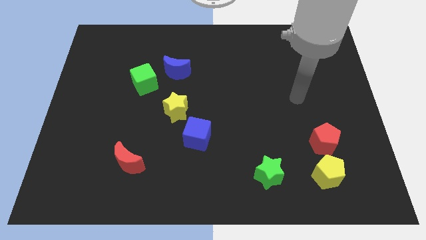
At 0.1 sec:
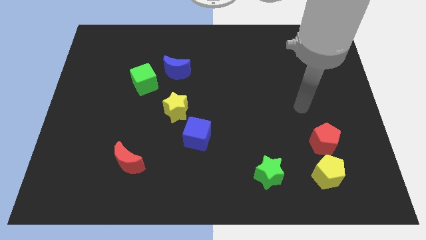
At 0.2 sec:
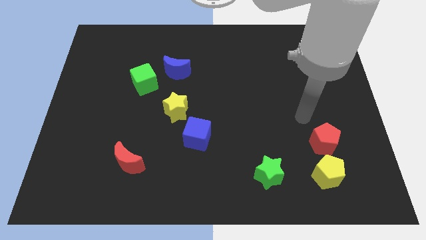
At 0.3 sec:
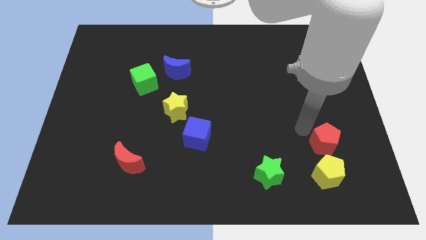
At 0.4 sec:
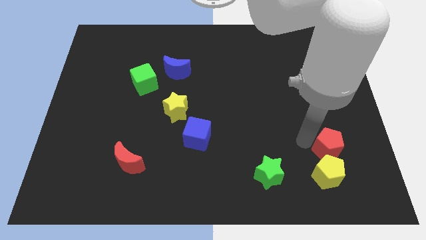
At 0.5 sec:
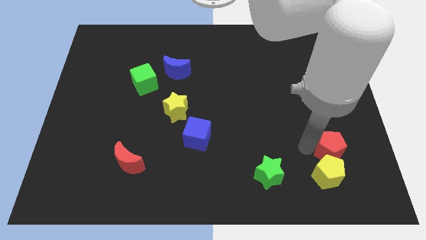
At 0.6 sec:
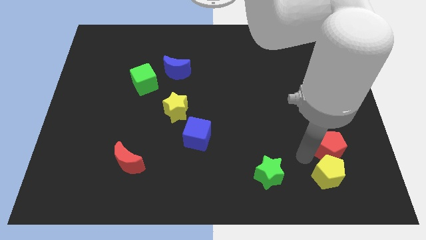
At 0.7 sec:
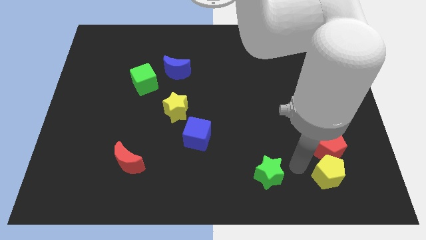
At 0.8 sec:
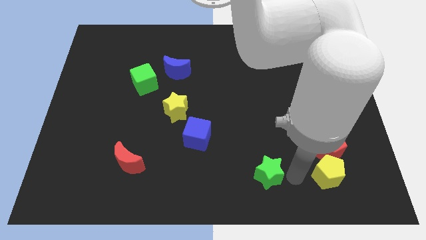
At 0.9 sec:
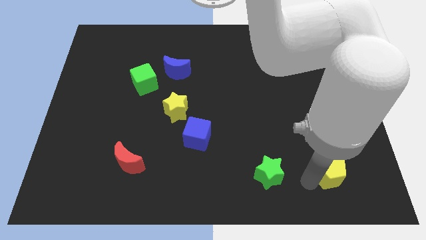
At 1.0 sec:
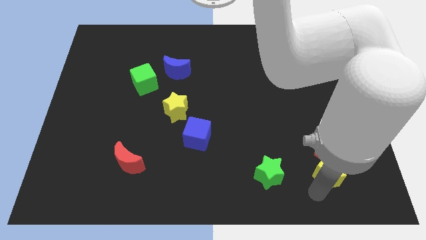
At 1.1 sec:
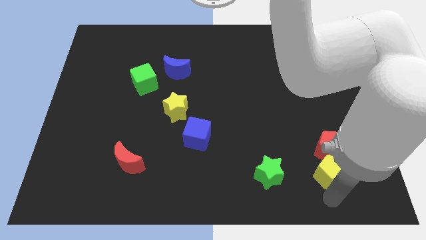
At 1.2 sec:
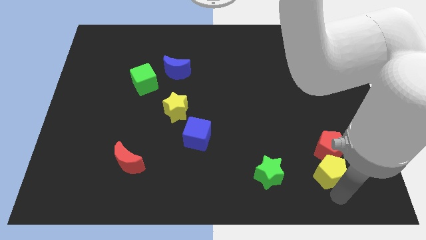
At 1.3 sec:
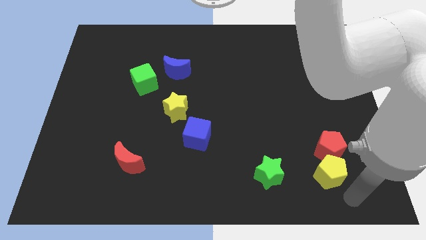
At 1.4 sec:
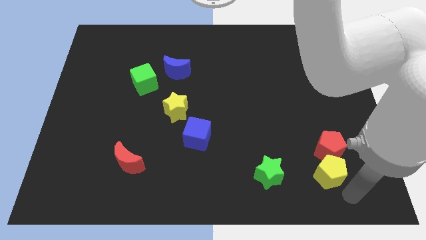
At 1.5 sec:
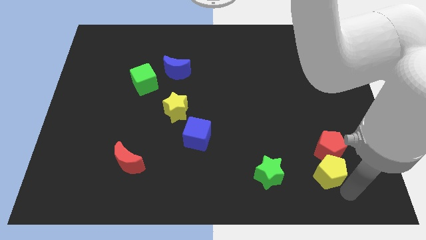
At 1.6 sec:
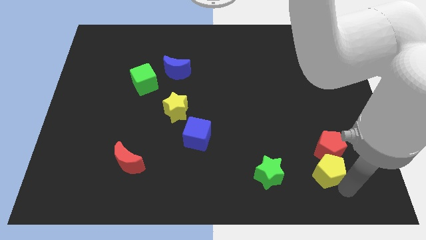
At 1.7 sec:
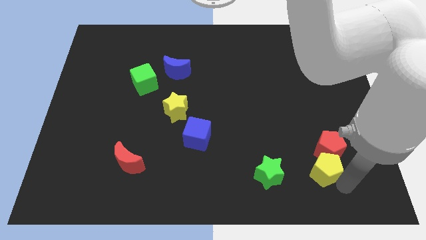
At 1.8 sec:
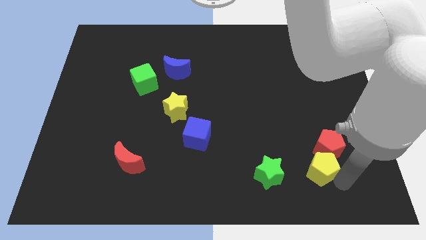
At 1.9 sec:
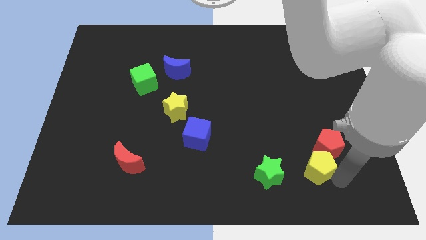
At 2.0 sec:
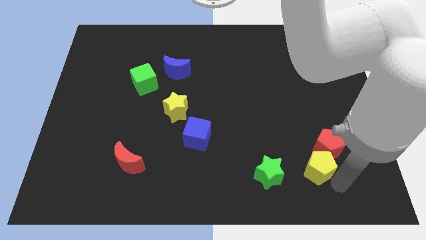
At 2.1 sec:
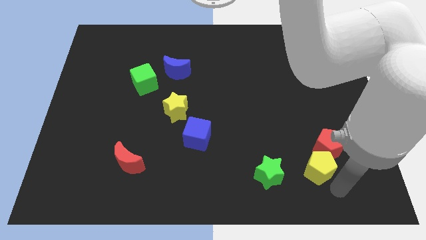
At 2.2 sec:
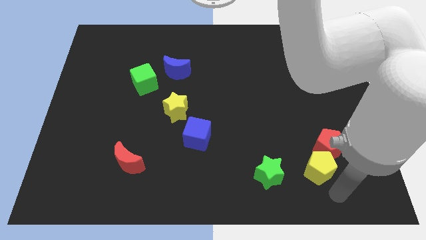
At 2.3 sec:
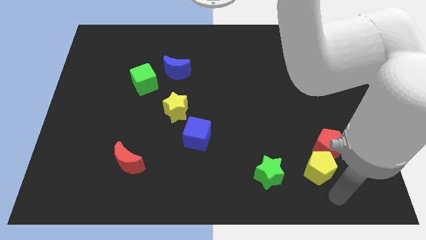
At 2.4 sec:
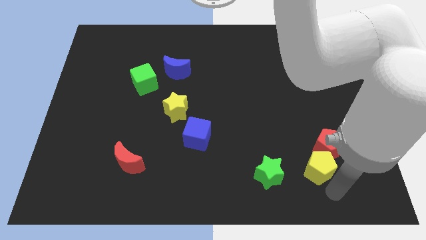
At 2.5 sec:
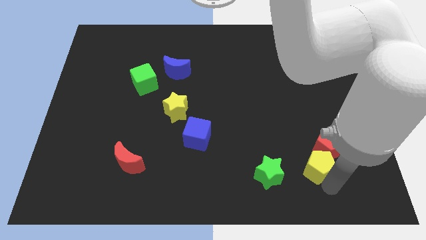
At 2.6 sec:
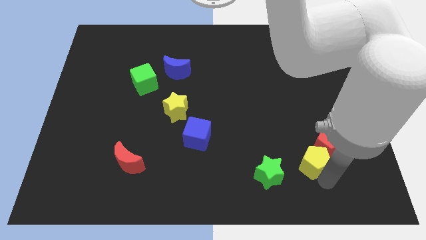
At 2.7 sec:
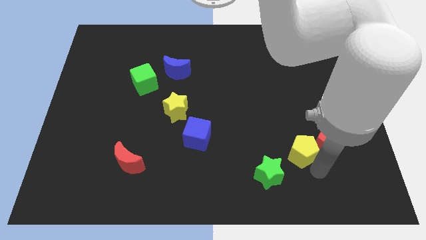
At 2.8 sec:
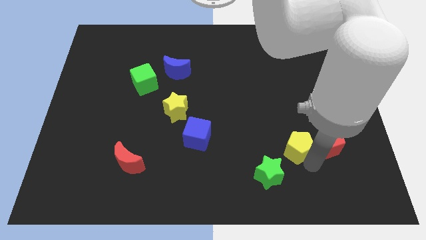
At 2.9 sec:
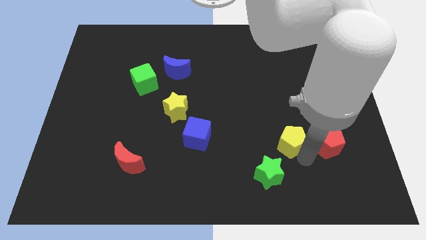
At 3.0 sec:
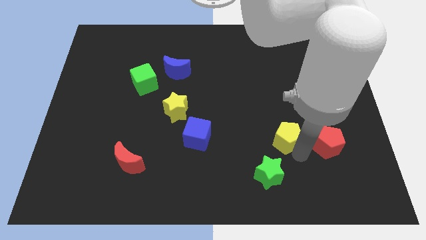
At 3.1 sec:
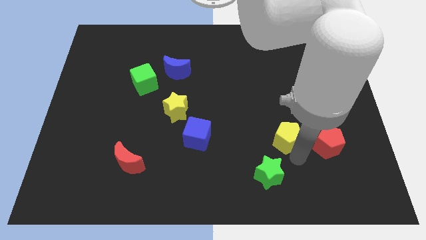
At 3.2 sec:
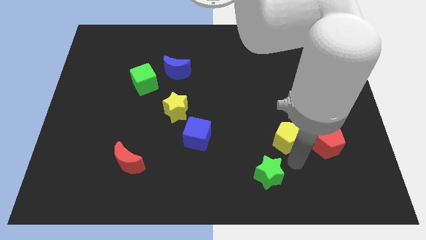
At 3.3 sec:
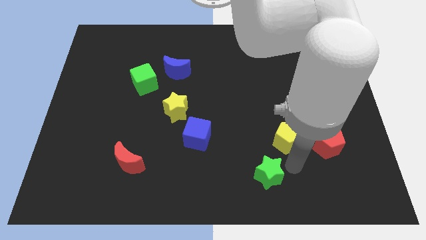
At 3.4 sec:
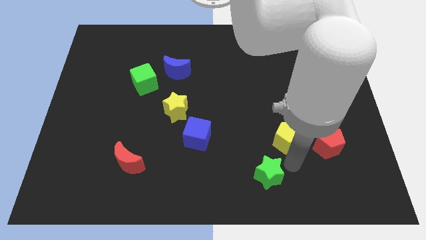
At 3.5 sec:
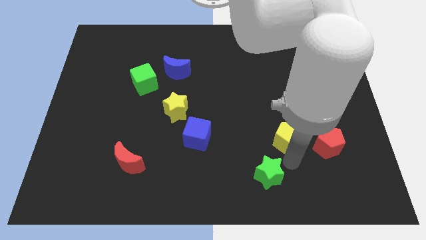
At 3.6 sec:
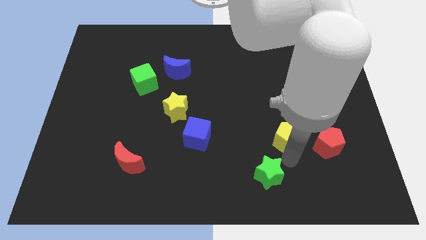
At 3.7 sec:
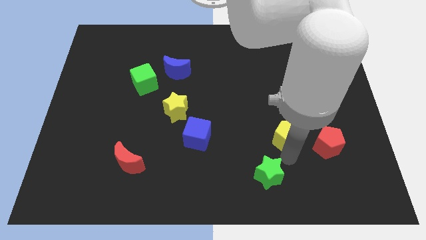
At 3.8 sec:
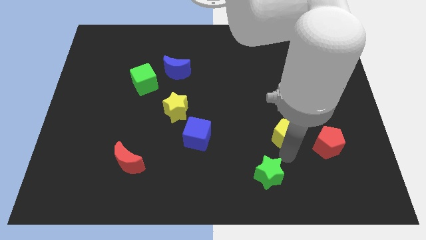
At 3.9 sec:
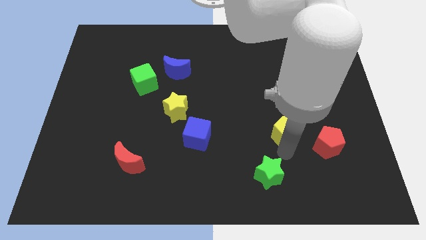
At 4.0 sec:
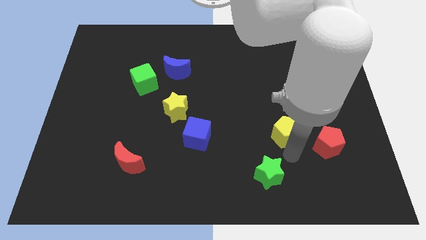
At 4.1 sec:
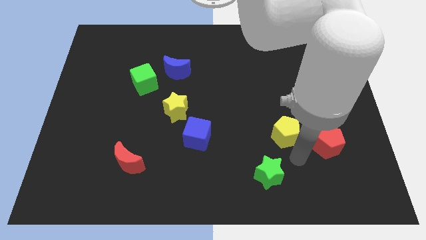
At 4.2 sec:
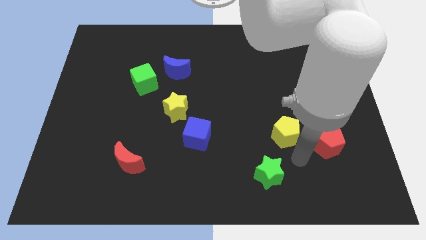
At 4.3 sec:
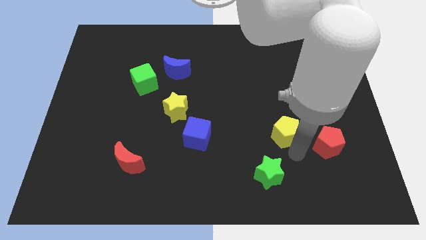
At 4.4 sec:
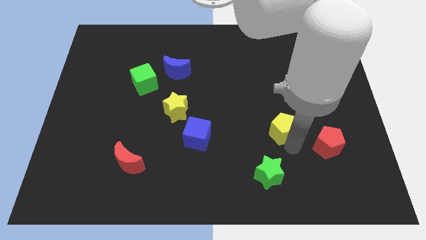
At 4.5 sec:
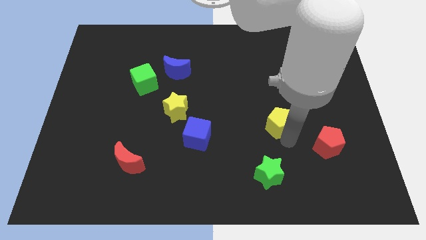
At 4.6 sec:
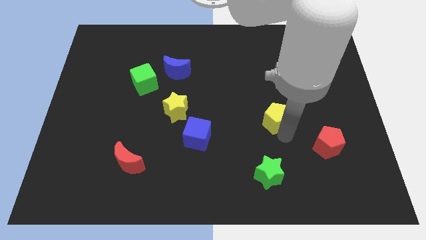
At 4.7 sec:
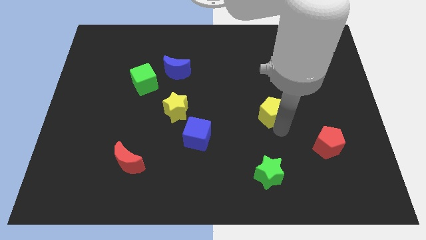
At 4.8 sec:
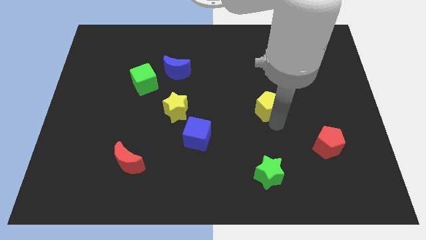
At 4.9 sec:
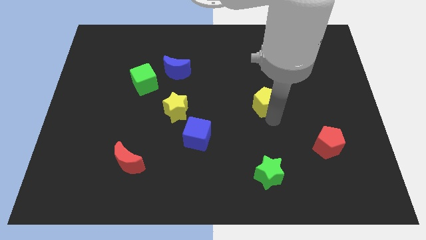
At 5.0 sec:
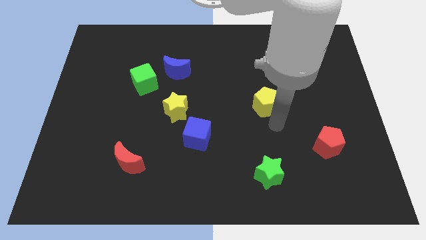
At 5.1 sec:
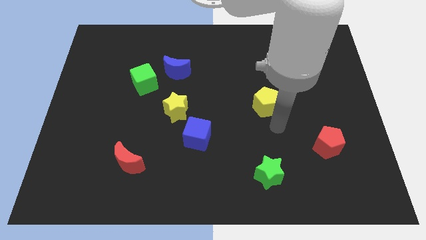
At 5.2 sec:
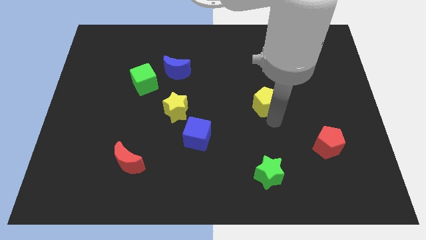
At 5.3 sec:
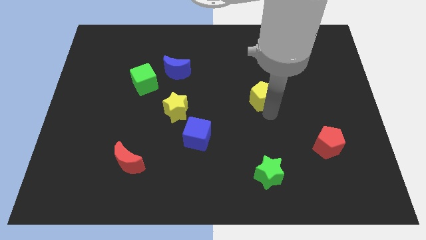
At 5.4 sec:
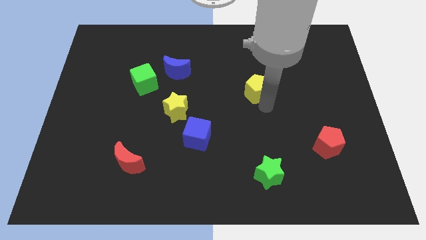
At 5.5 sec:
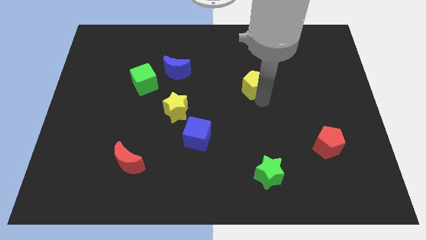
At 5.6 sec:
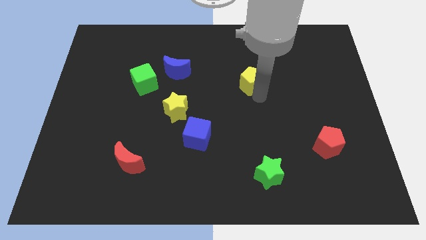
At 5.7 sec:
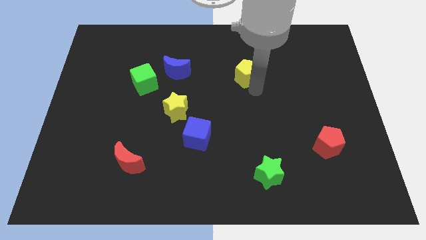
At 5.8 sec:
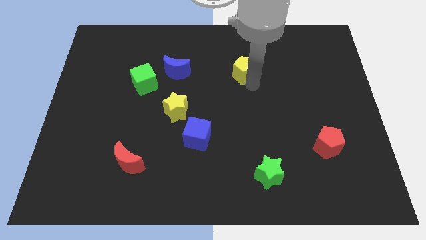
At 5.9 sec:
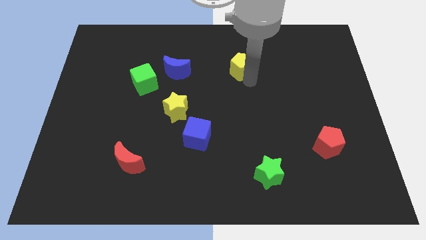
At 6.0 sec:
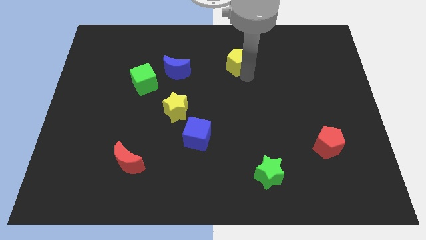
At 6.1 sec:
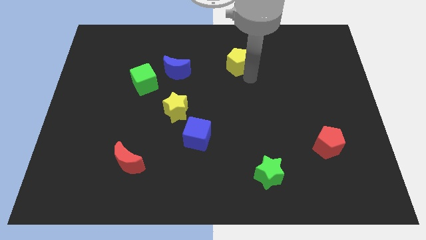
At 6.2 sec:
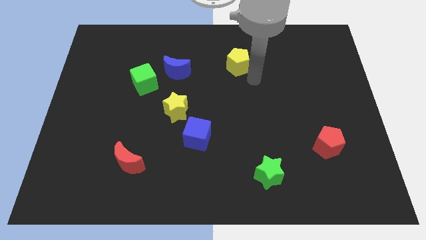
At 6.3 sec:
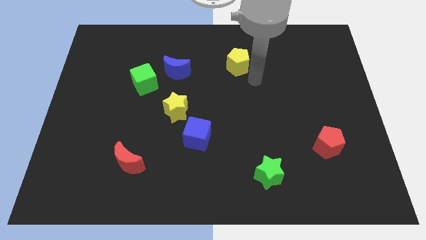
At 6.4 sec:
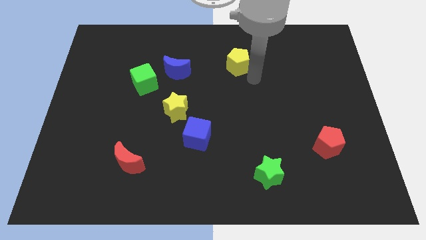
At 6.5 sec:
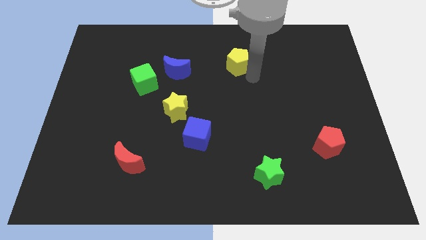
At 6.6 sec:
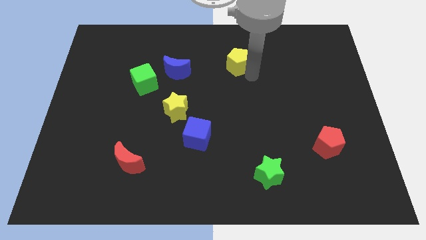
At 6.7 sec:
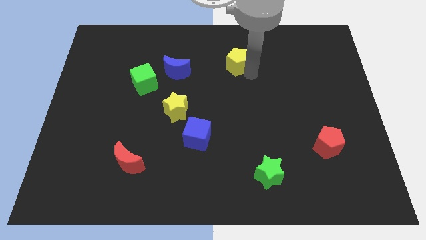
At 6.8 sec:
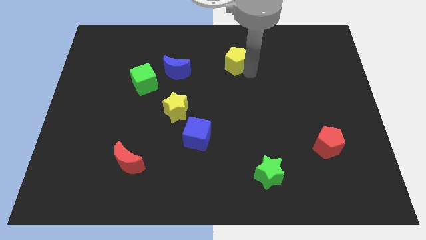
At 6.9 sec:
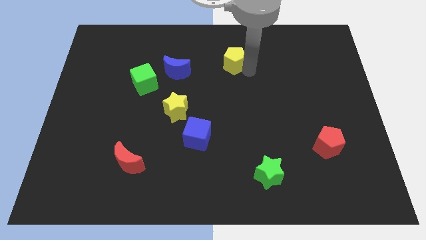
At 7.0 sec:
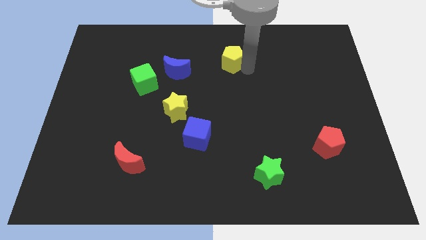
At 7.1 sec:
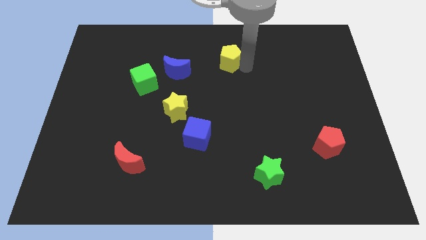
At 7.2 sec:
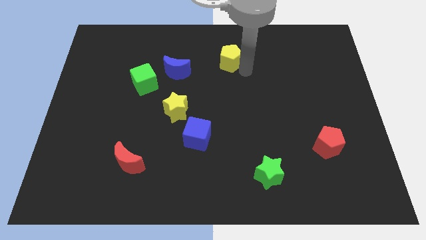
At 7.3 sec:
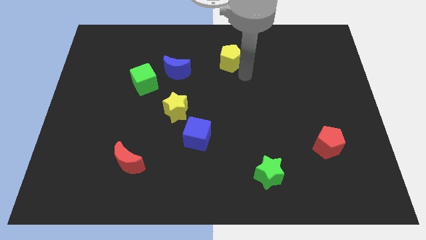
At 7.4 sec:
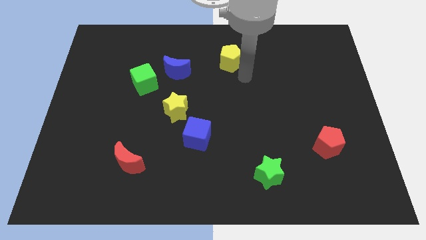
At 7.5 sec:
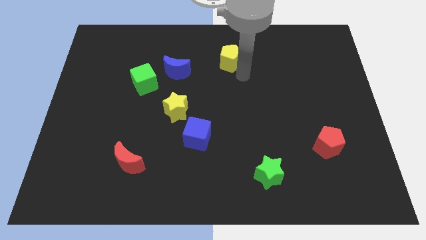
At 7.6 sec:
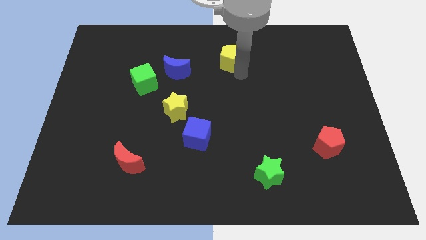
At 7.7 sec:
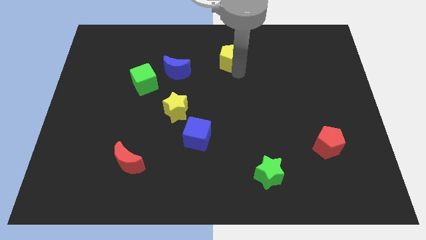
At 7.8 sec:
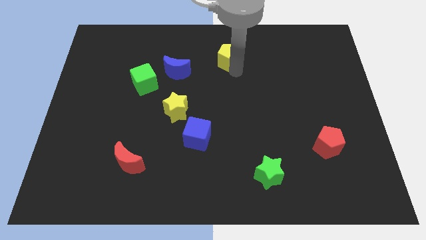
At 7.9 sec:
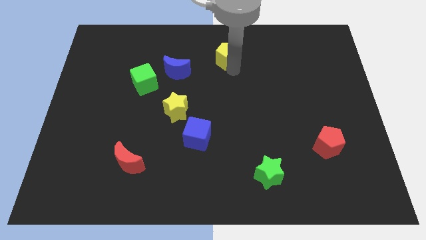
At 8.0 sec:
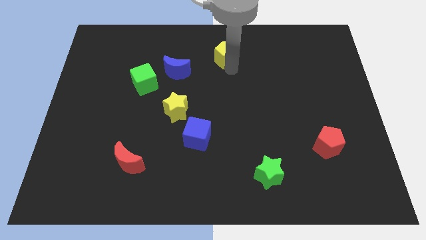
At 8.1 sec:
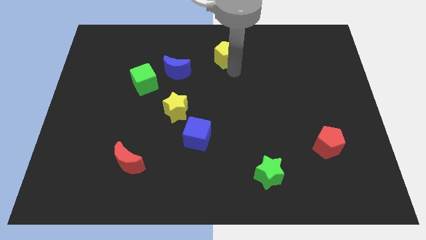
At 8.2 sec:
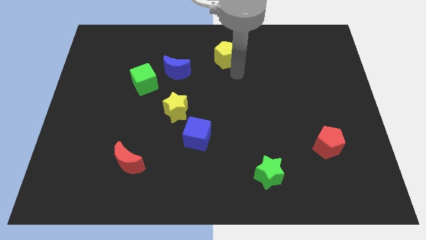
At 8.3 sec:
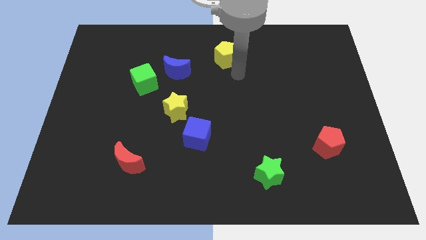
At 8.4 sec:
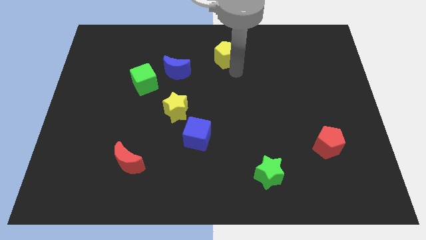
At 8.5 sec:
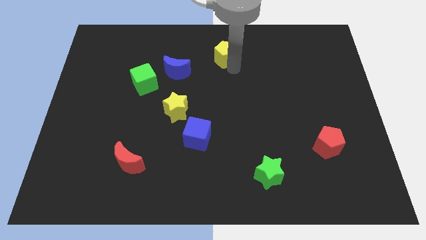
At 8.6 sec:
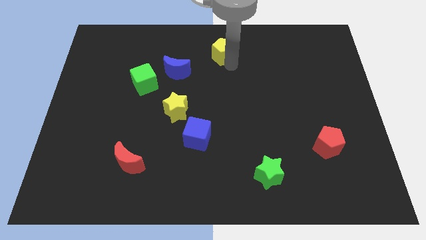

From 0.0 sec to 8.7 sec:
push the yellow pentagon to the top
